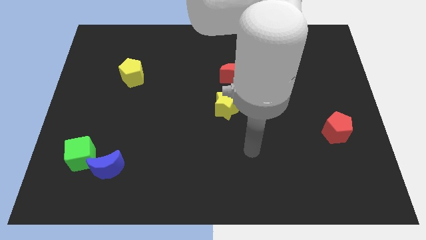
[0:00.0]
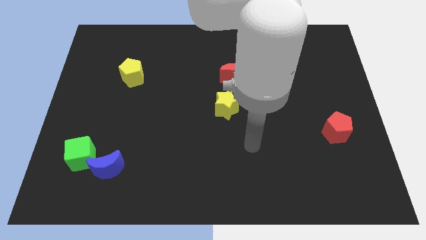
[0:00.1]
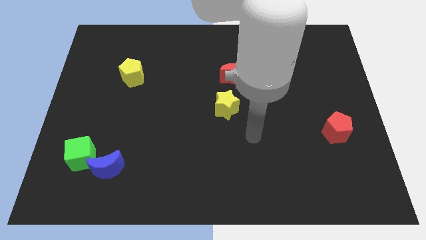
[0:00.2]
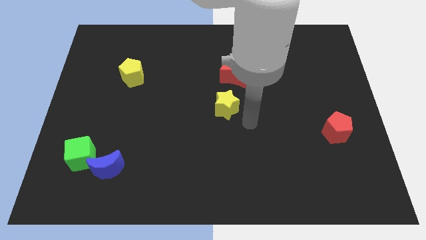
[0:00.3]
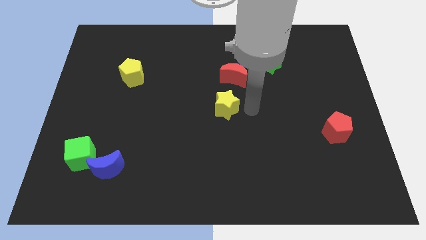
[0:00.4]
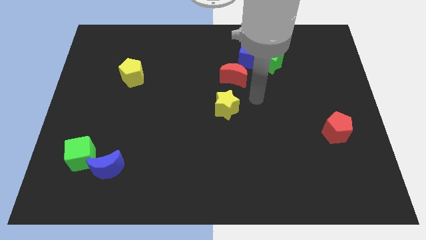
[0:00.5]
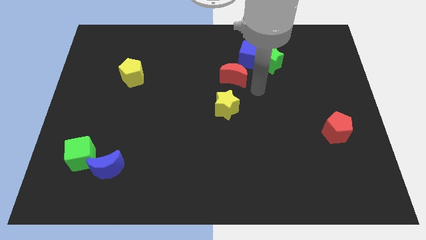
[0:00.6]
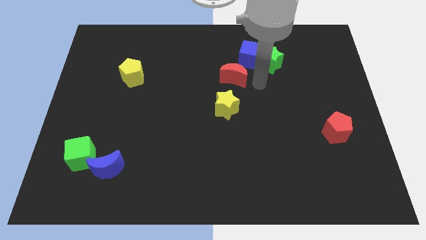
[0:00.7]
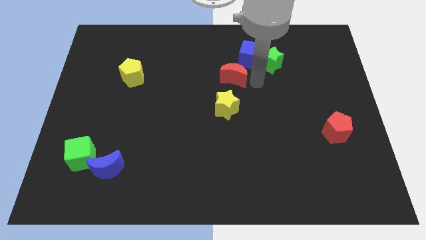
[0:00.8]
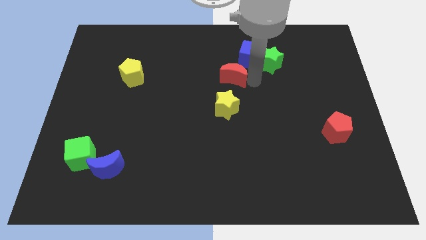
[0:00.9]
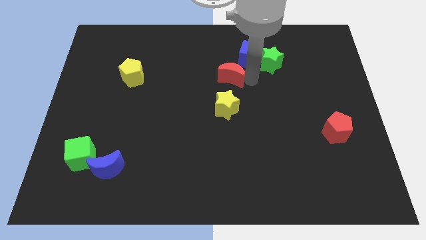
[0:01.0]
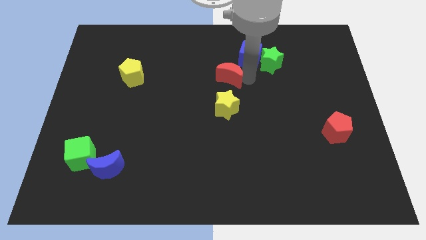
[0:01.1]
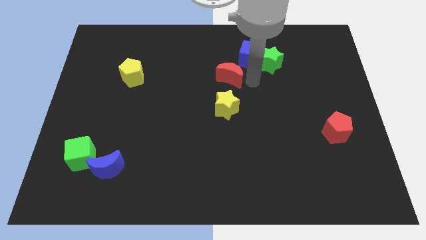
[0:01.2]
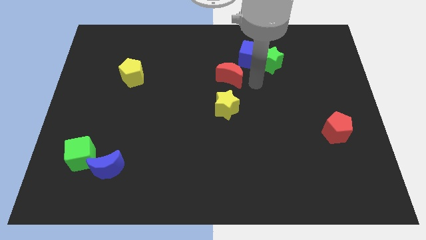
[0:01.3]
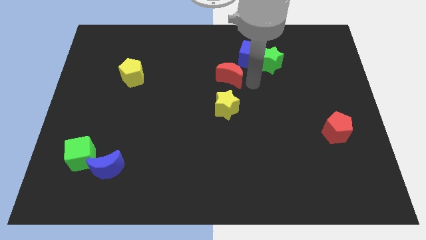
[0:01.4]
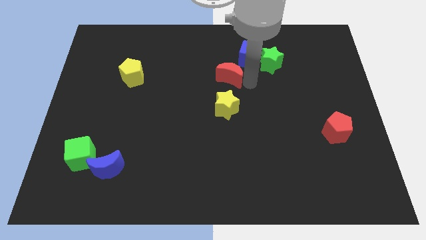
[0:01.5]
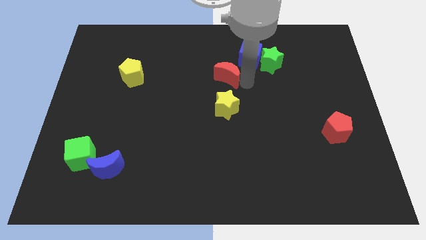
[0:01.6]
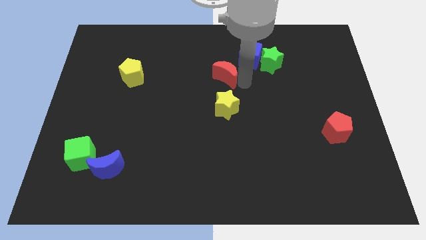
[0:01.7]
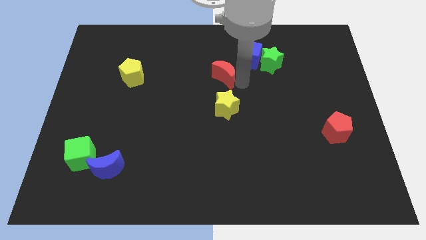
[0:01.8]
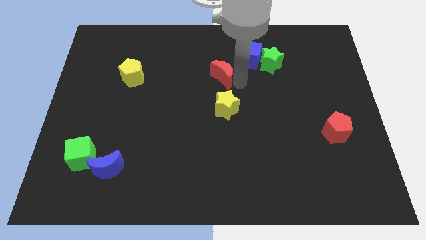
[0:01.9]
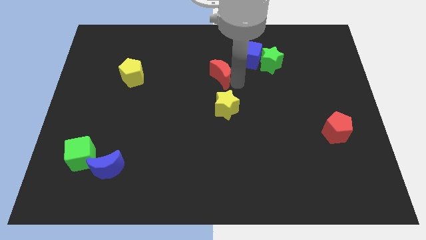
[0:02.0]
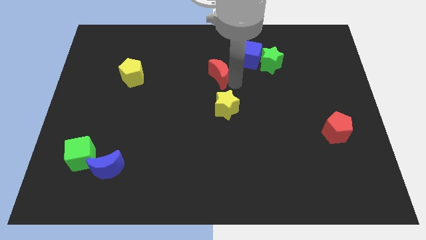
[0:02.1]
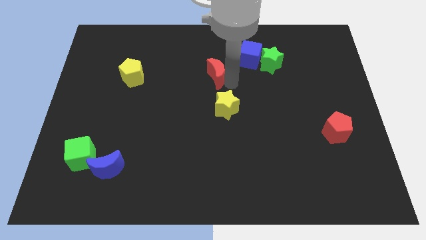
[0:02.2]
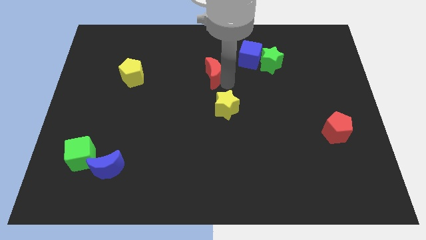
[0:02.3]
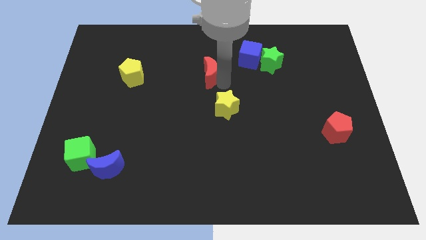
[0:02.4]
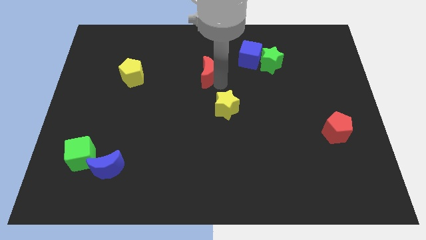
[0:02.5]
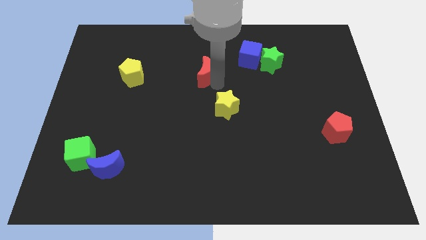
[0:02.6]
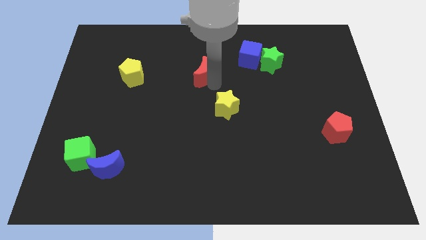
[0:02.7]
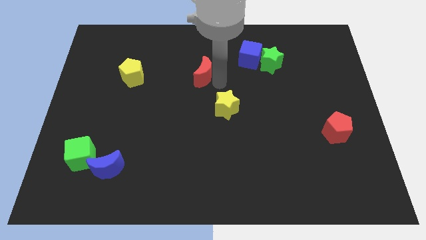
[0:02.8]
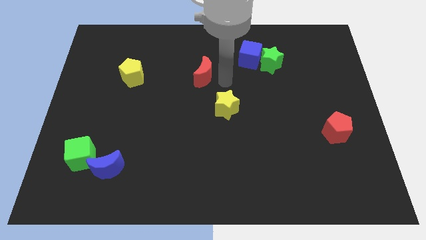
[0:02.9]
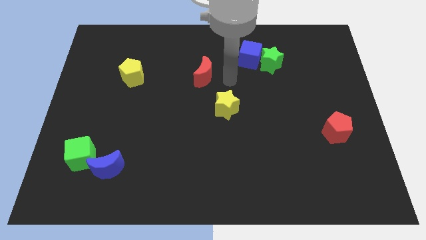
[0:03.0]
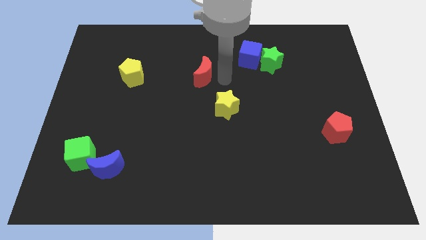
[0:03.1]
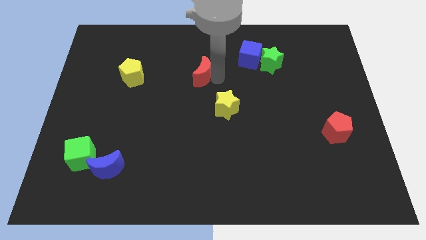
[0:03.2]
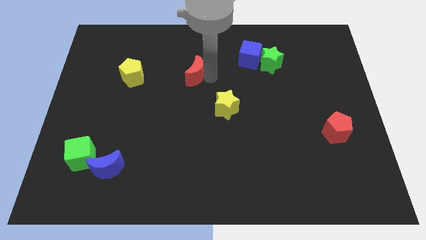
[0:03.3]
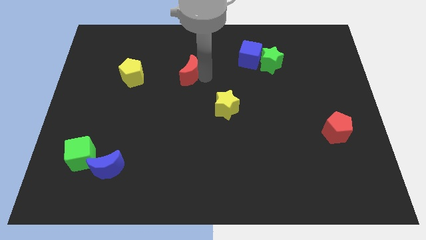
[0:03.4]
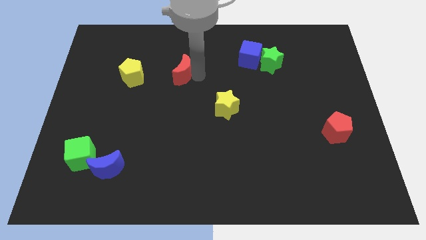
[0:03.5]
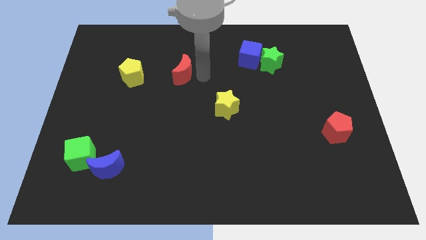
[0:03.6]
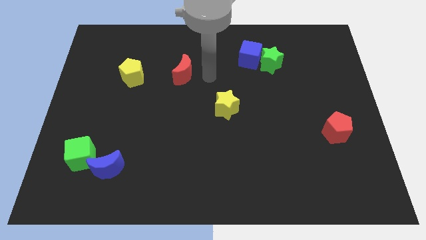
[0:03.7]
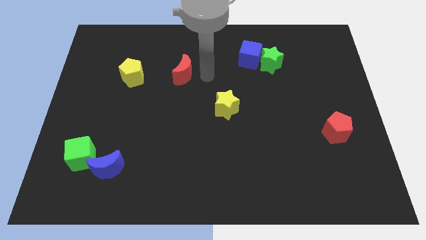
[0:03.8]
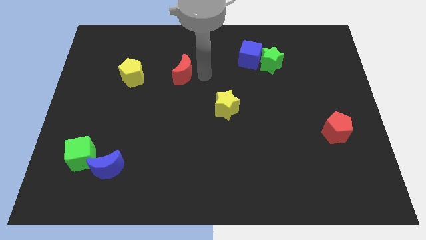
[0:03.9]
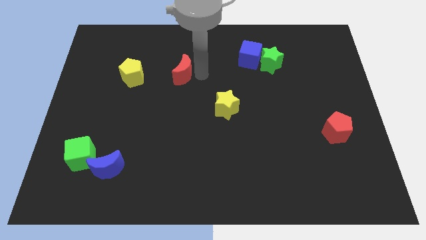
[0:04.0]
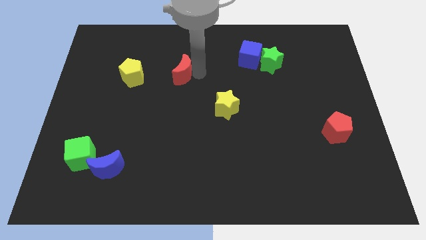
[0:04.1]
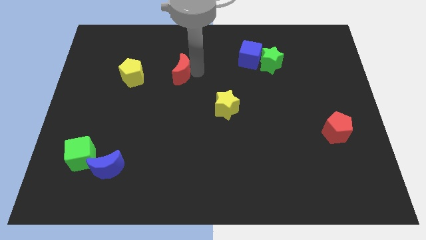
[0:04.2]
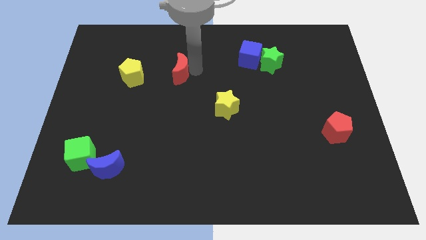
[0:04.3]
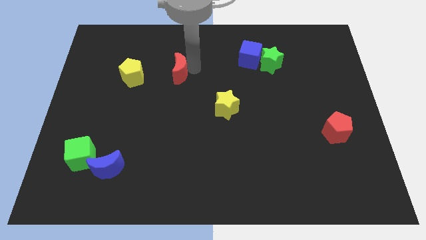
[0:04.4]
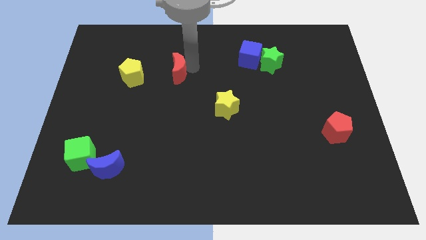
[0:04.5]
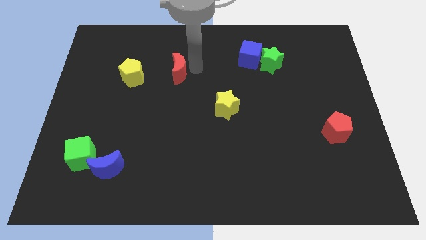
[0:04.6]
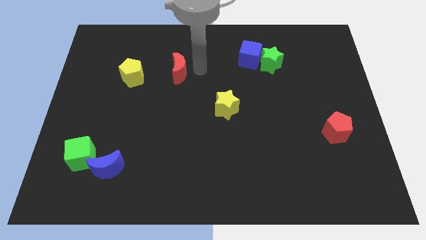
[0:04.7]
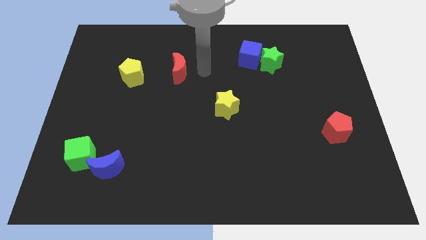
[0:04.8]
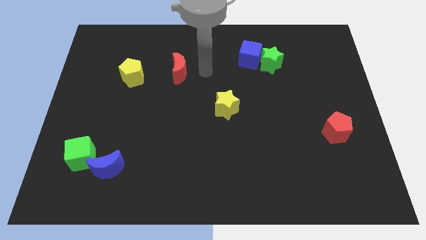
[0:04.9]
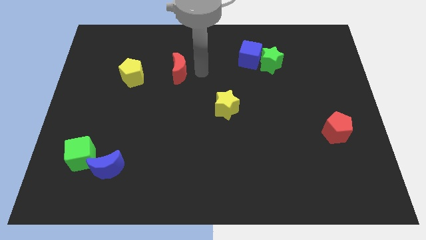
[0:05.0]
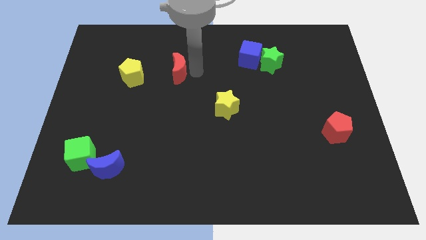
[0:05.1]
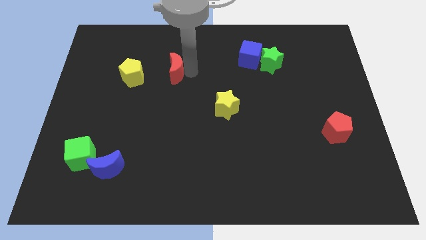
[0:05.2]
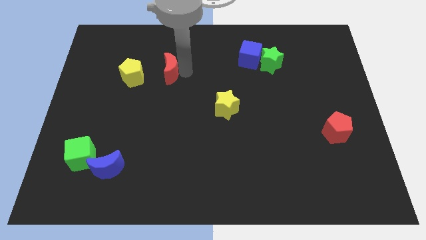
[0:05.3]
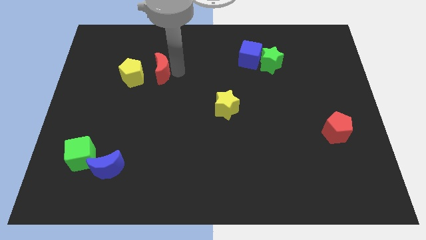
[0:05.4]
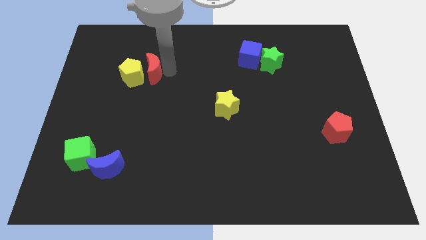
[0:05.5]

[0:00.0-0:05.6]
push the red moon towards the yellow pentagon

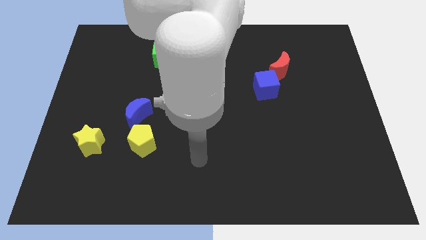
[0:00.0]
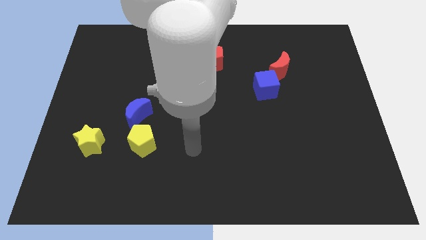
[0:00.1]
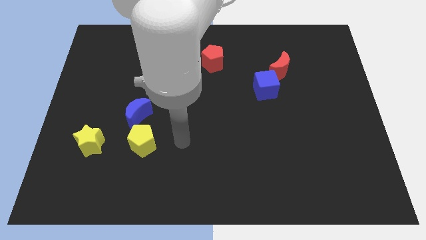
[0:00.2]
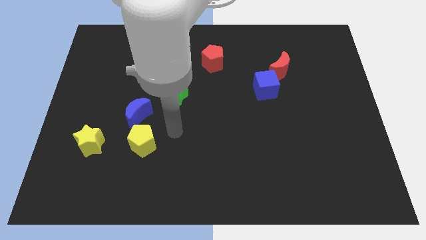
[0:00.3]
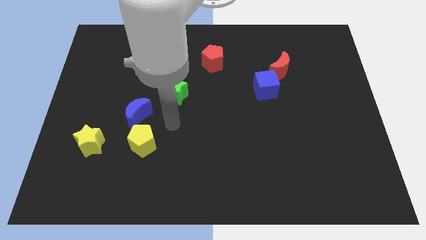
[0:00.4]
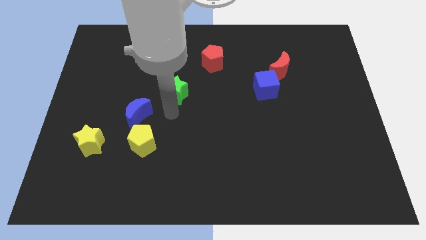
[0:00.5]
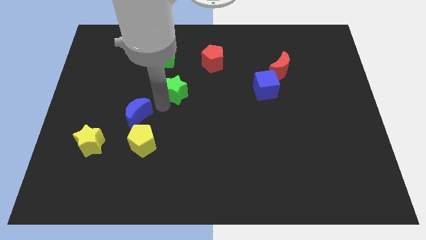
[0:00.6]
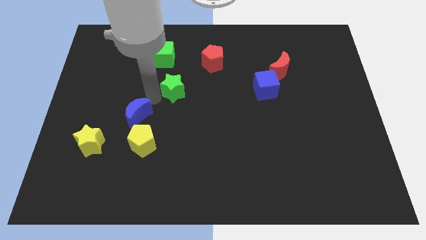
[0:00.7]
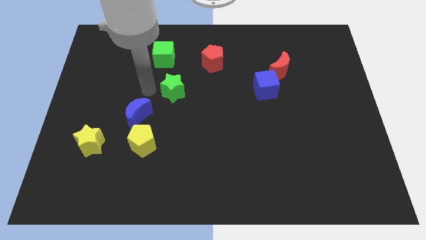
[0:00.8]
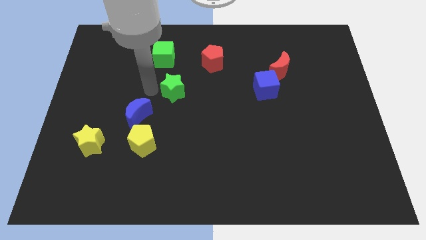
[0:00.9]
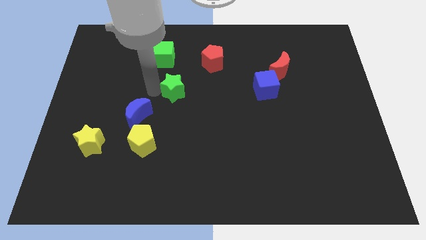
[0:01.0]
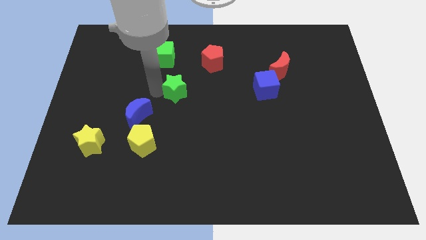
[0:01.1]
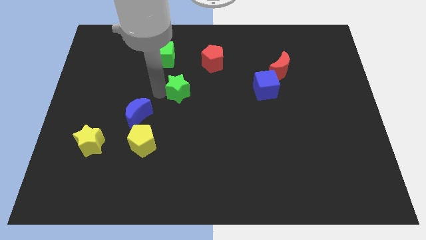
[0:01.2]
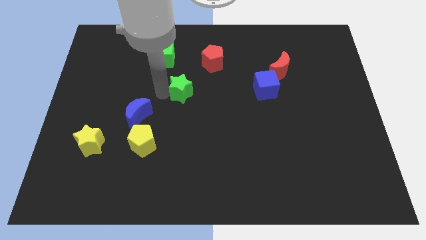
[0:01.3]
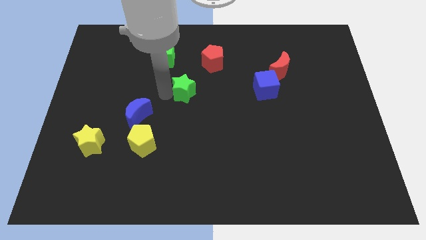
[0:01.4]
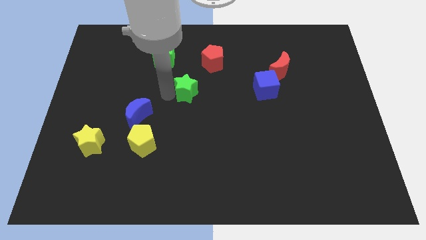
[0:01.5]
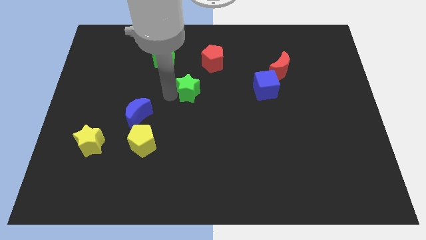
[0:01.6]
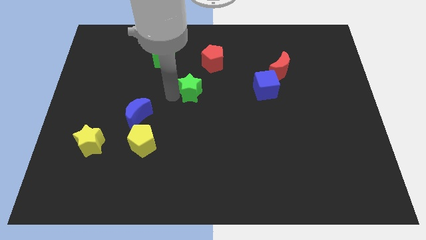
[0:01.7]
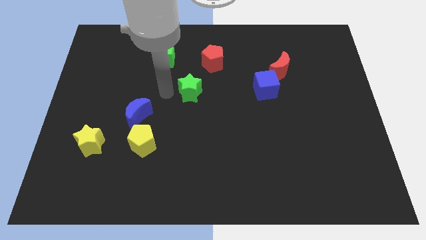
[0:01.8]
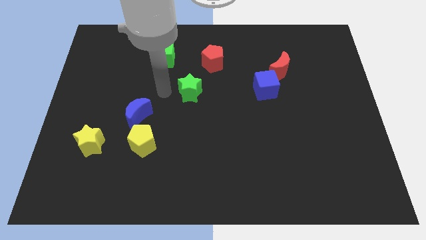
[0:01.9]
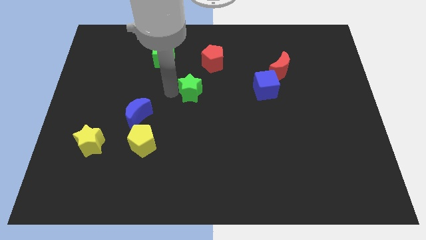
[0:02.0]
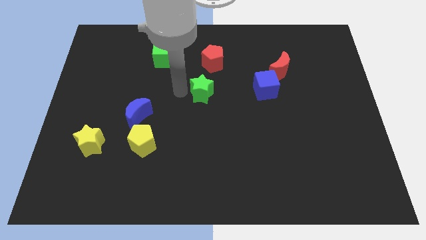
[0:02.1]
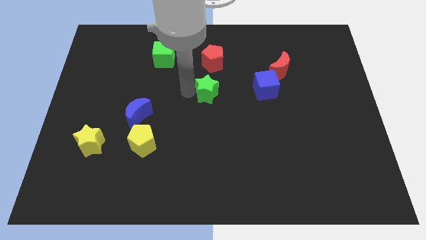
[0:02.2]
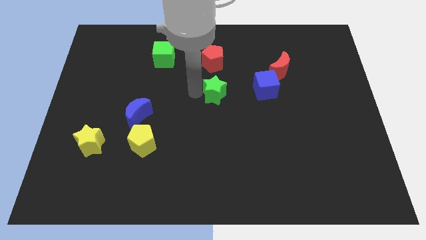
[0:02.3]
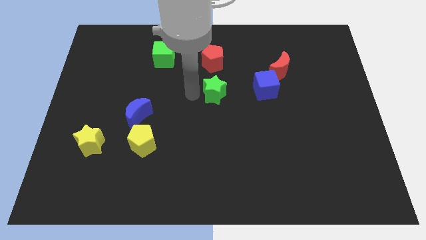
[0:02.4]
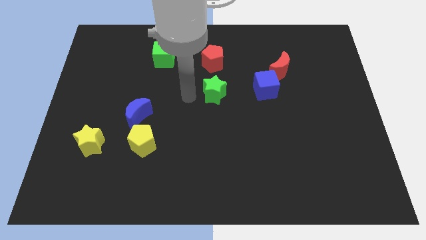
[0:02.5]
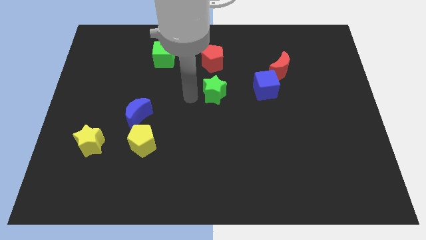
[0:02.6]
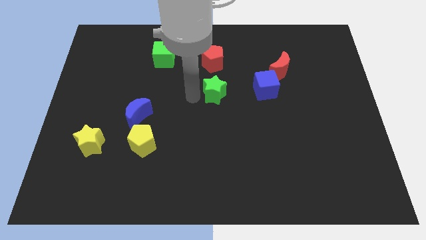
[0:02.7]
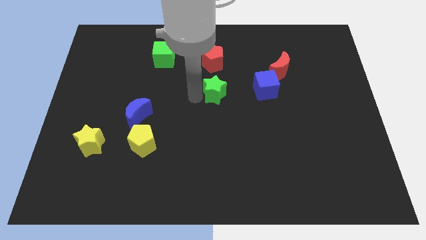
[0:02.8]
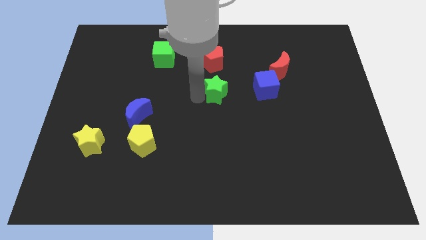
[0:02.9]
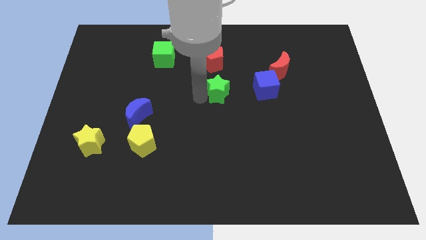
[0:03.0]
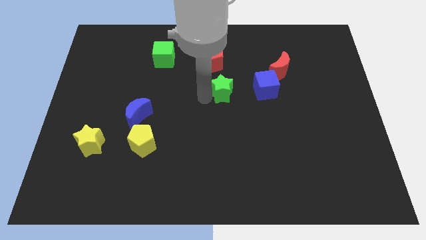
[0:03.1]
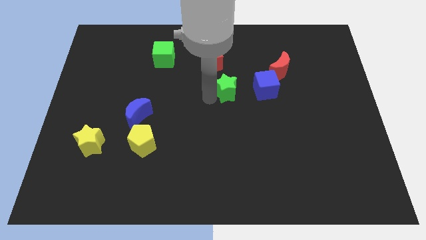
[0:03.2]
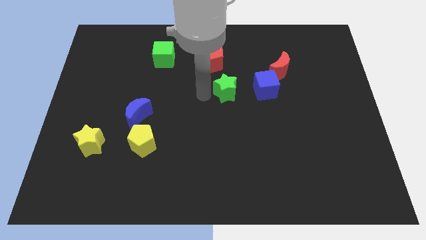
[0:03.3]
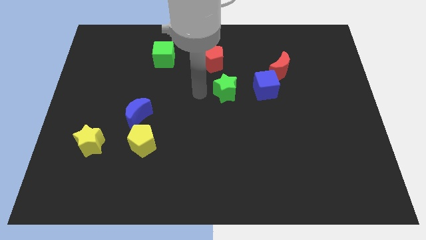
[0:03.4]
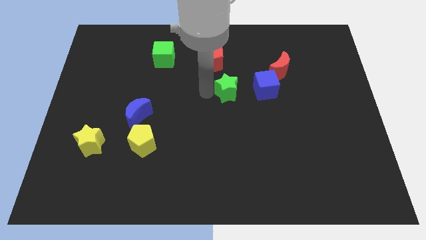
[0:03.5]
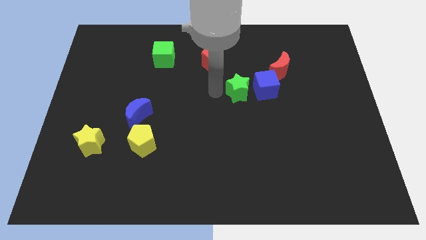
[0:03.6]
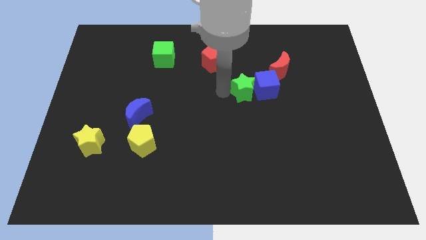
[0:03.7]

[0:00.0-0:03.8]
slide the green star towards the blue cube
